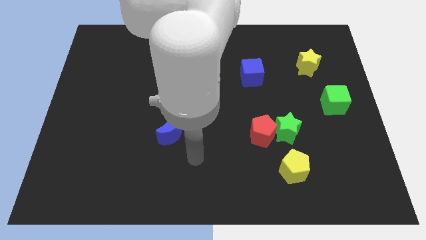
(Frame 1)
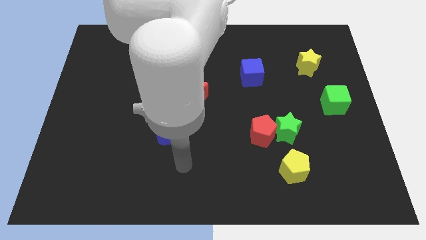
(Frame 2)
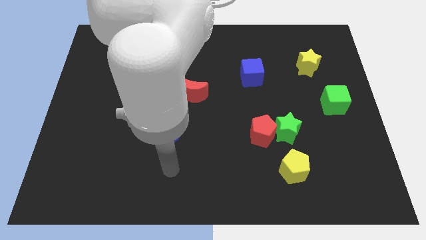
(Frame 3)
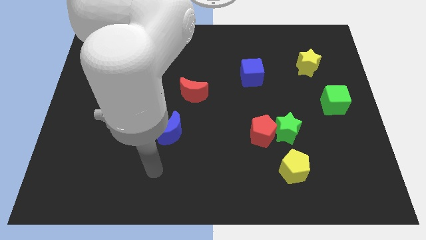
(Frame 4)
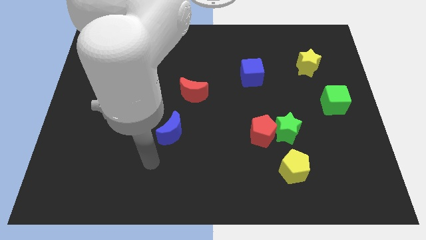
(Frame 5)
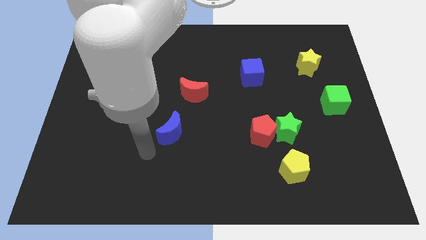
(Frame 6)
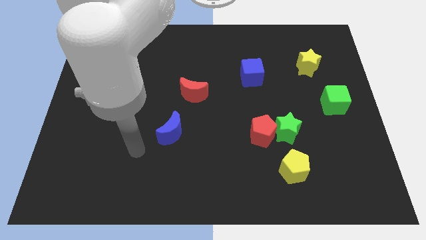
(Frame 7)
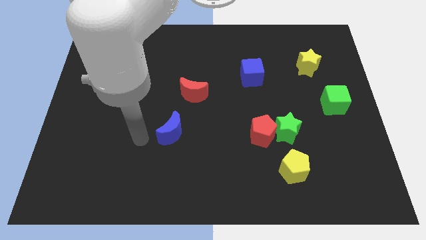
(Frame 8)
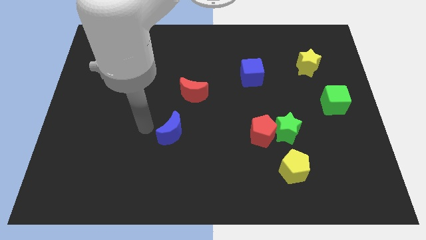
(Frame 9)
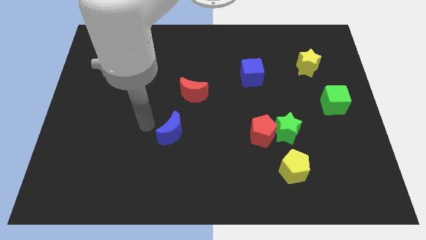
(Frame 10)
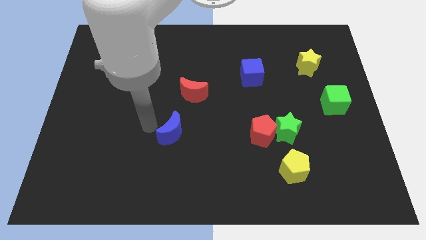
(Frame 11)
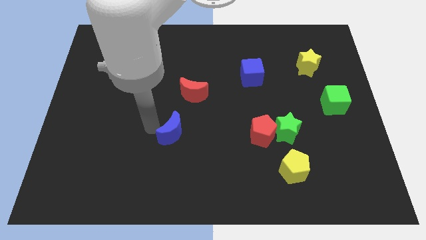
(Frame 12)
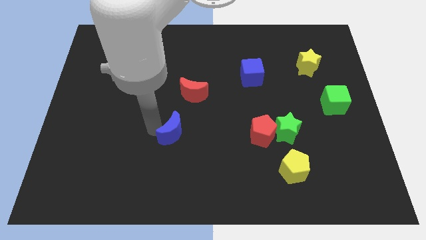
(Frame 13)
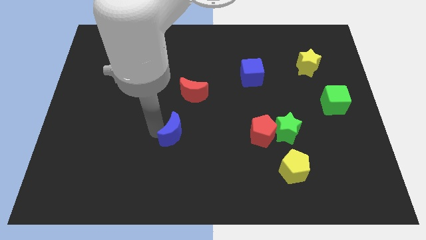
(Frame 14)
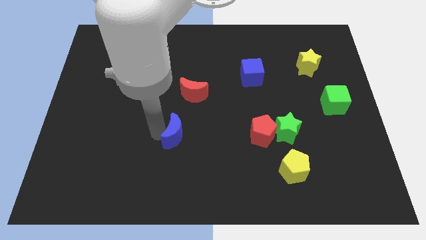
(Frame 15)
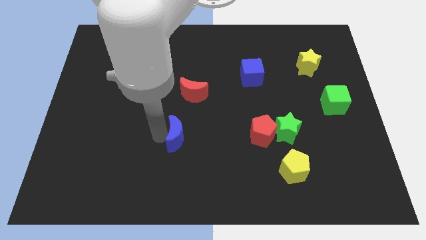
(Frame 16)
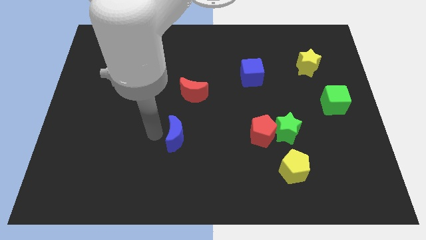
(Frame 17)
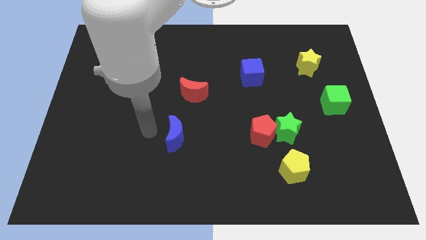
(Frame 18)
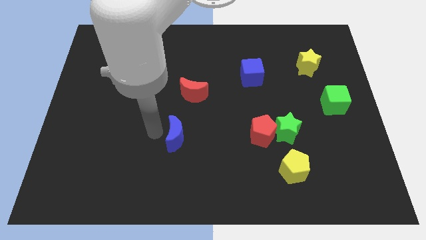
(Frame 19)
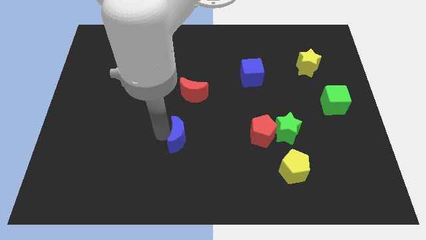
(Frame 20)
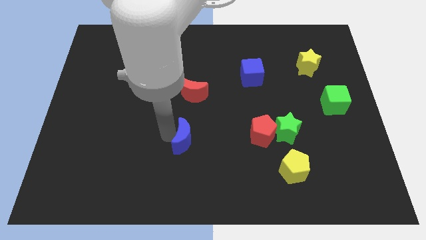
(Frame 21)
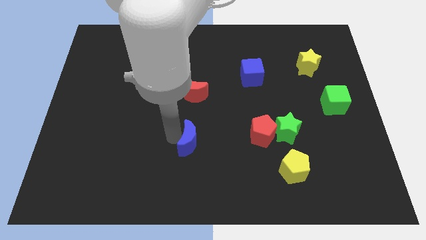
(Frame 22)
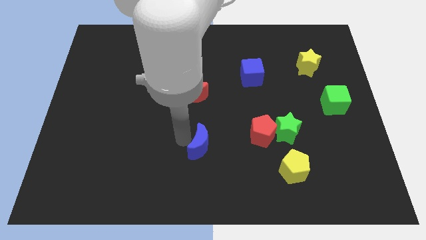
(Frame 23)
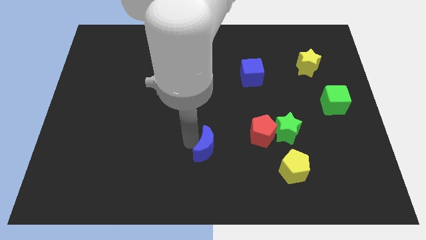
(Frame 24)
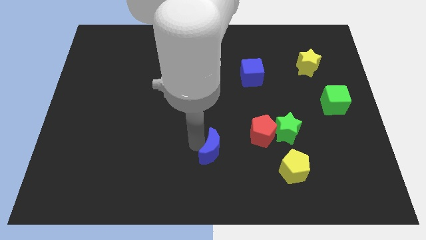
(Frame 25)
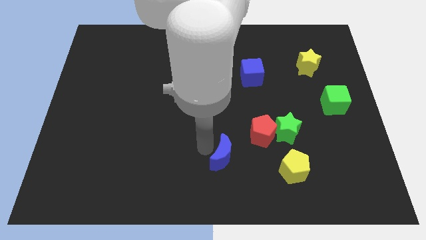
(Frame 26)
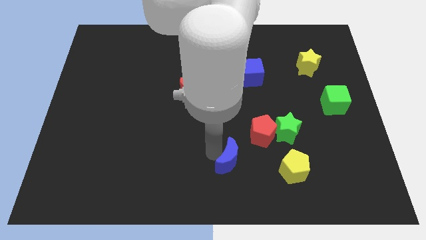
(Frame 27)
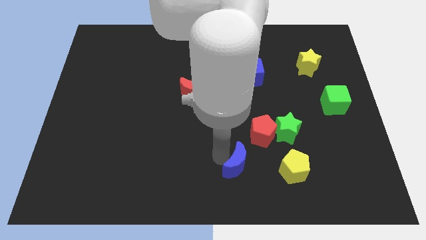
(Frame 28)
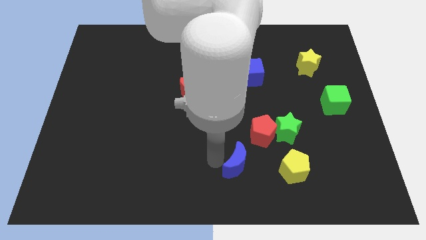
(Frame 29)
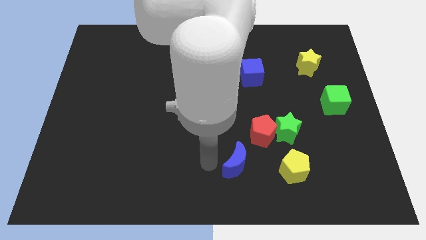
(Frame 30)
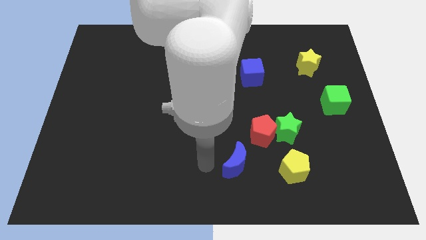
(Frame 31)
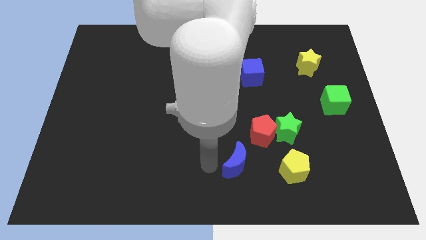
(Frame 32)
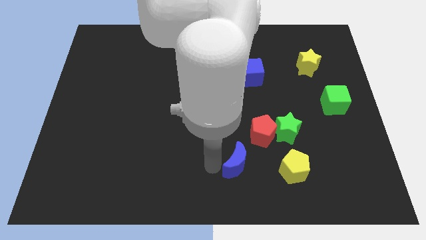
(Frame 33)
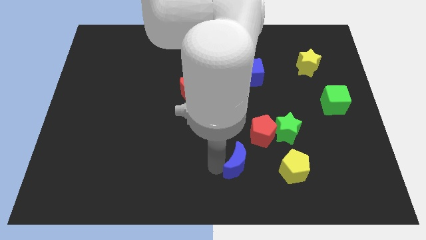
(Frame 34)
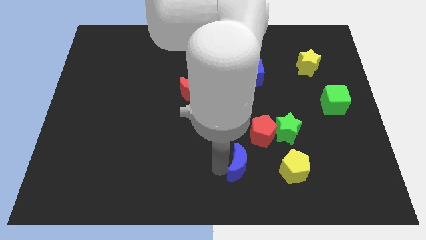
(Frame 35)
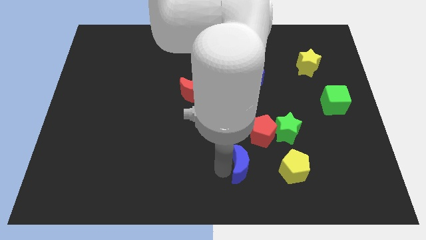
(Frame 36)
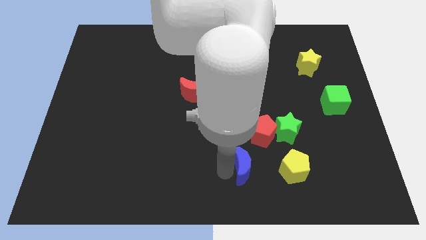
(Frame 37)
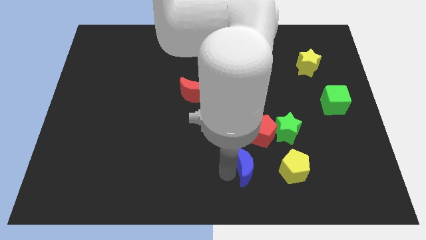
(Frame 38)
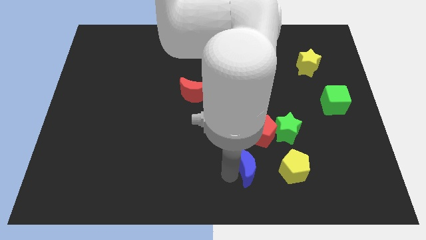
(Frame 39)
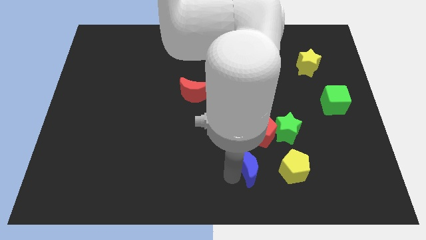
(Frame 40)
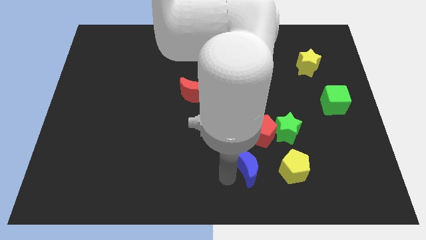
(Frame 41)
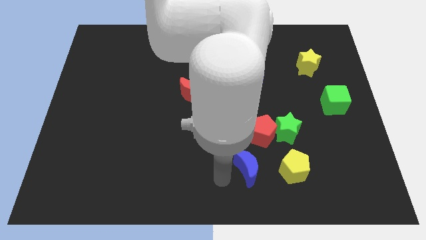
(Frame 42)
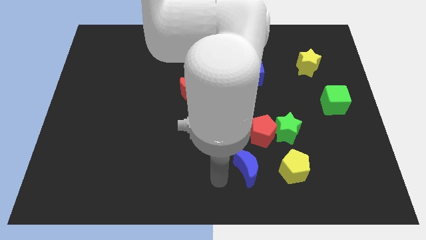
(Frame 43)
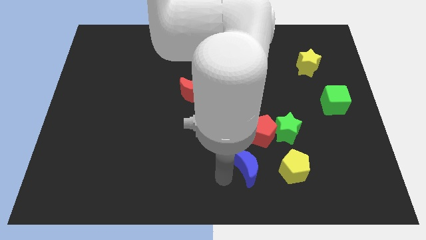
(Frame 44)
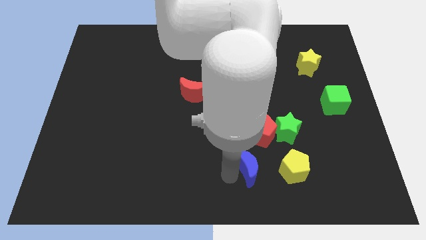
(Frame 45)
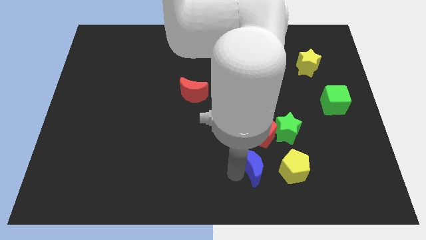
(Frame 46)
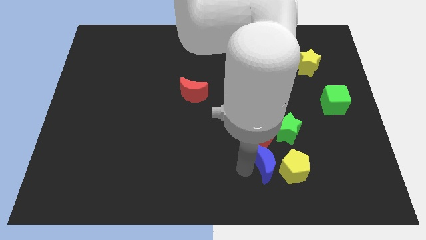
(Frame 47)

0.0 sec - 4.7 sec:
move the blue moon towards the yellow pentagon

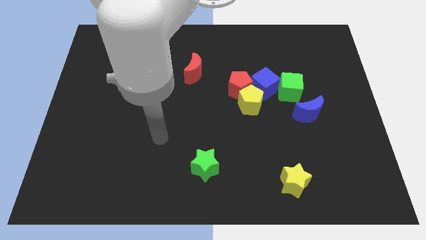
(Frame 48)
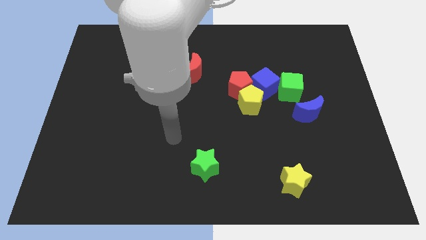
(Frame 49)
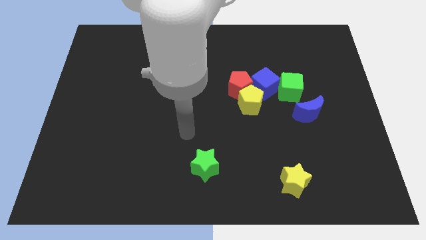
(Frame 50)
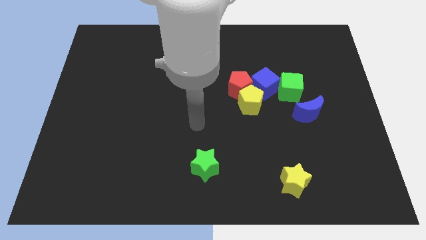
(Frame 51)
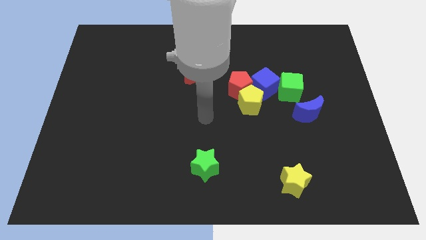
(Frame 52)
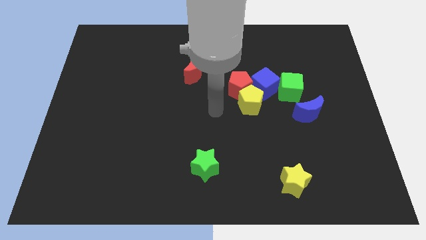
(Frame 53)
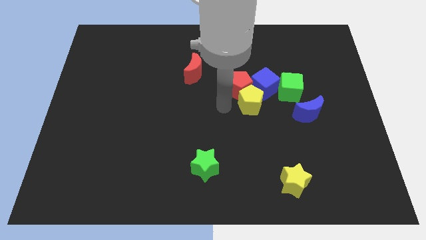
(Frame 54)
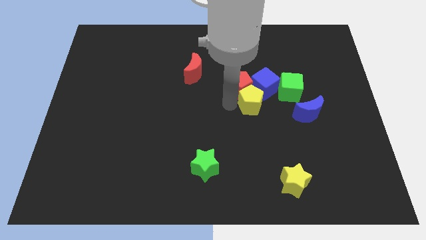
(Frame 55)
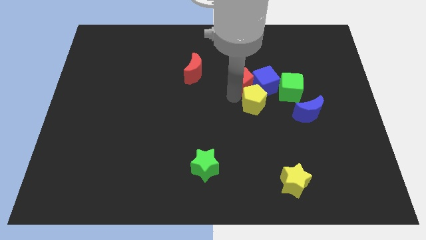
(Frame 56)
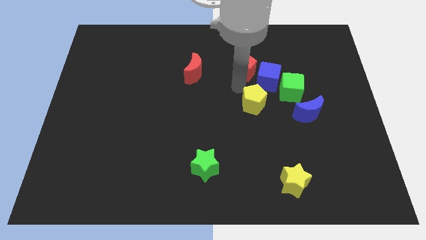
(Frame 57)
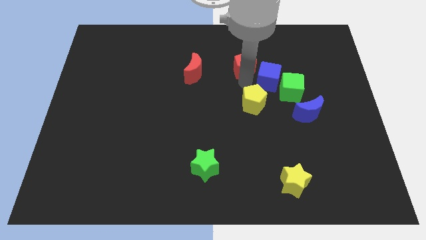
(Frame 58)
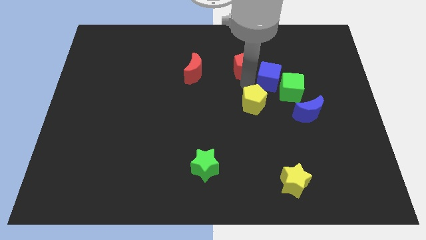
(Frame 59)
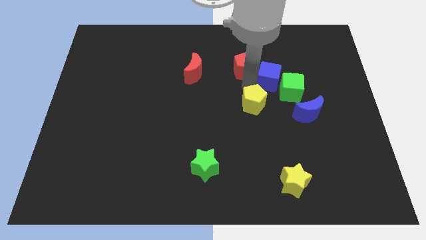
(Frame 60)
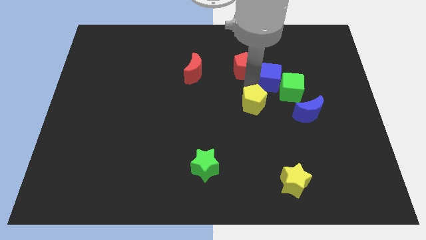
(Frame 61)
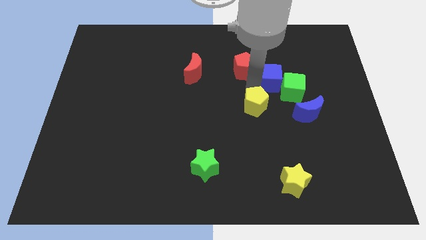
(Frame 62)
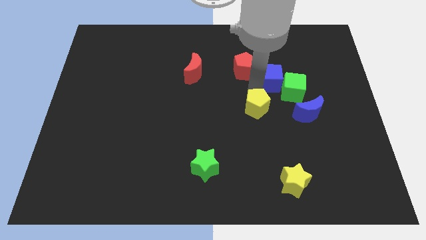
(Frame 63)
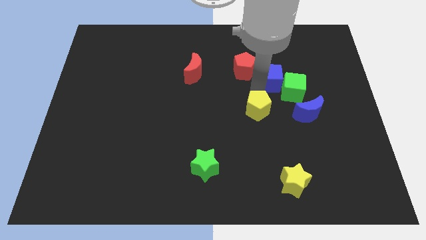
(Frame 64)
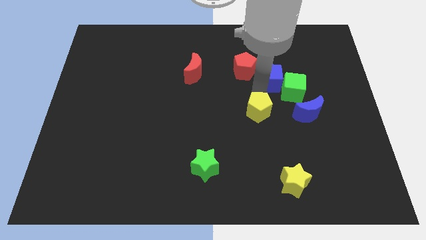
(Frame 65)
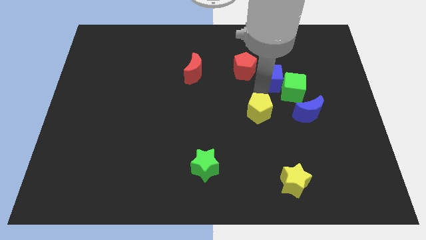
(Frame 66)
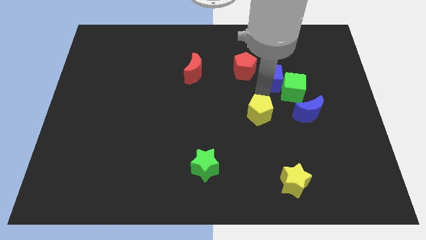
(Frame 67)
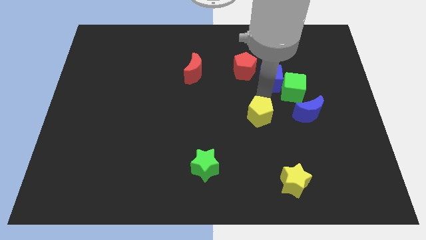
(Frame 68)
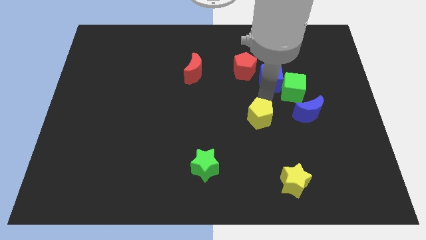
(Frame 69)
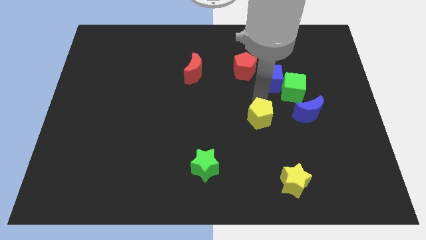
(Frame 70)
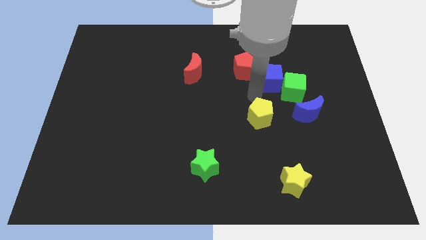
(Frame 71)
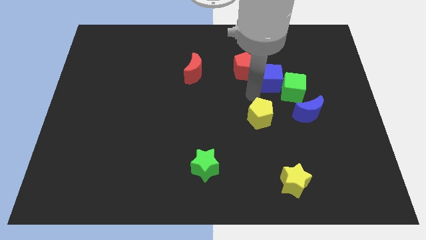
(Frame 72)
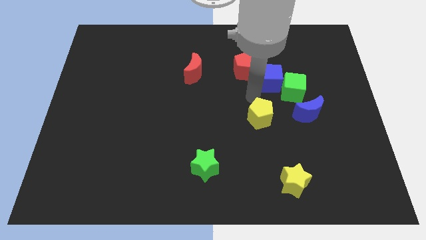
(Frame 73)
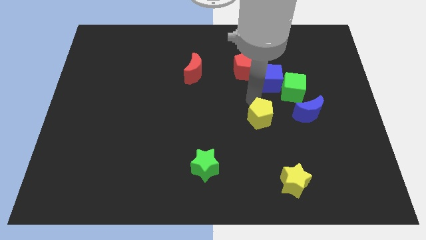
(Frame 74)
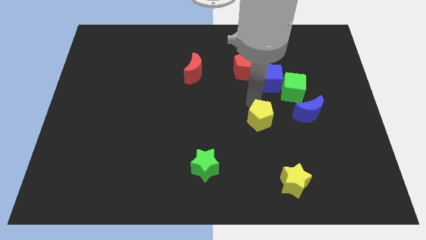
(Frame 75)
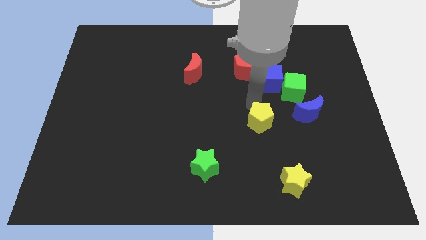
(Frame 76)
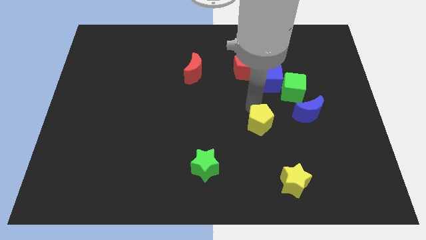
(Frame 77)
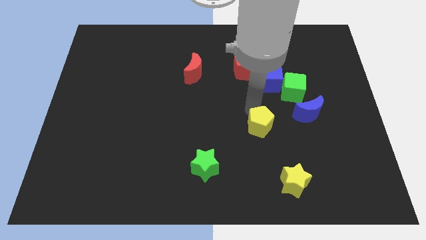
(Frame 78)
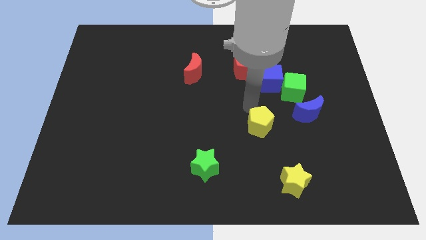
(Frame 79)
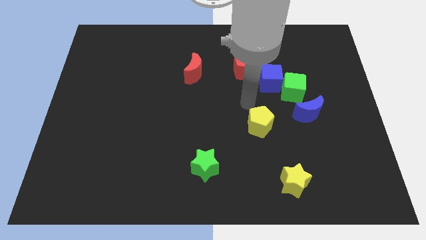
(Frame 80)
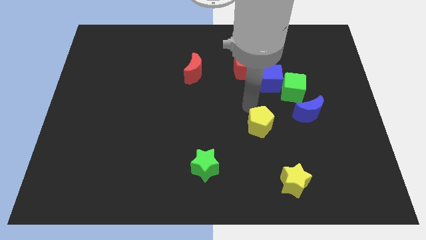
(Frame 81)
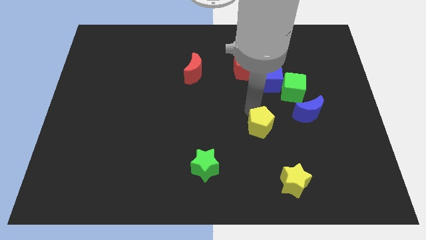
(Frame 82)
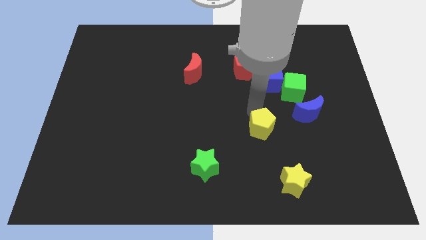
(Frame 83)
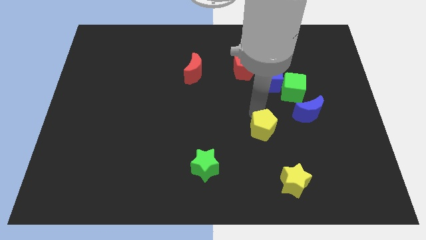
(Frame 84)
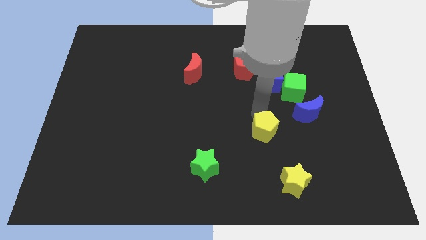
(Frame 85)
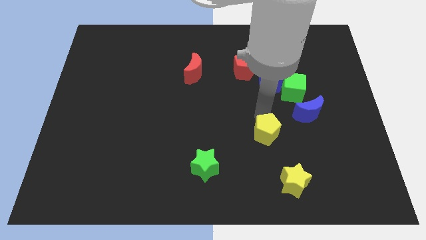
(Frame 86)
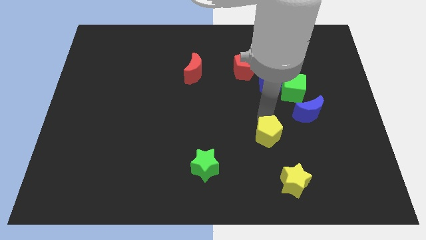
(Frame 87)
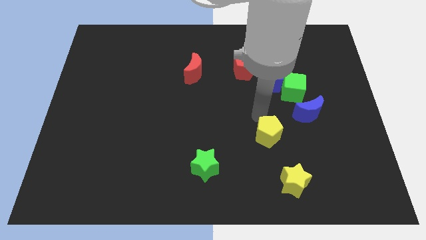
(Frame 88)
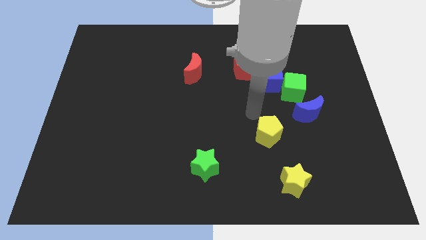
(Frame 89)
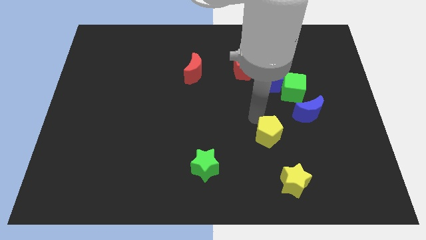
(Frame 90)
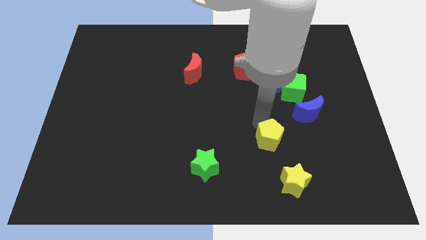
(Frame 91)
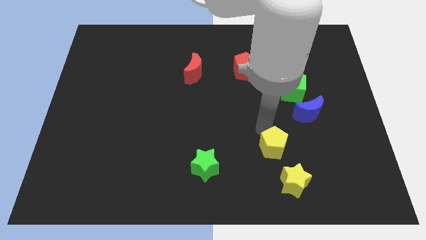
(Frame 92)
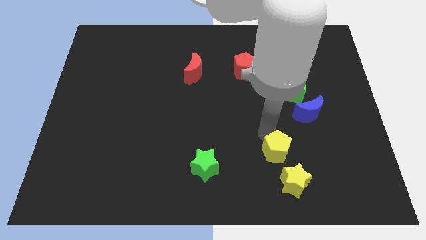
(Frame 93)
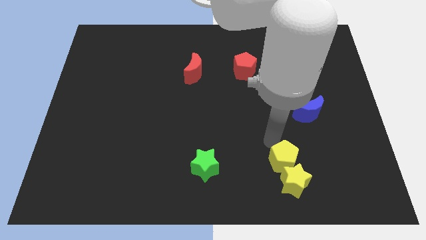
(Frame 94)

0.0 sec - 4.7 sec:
move the yellow pentagon next to the yellow star
